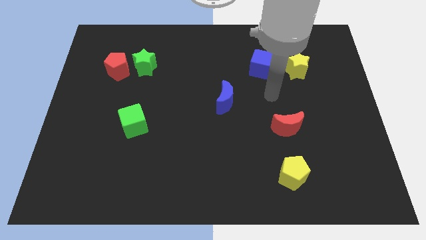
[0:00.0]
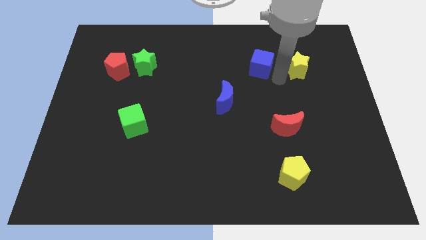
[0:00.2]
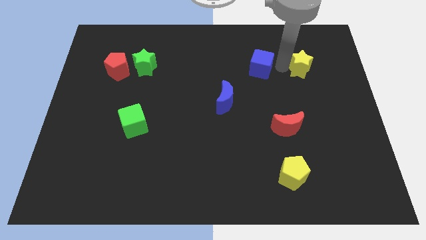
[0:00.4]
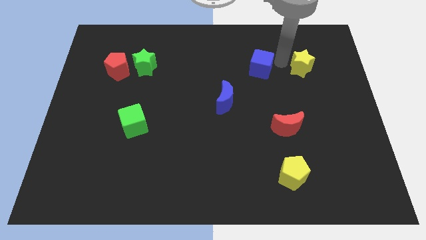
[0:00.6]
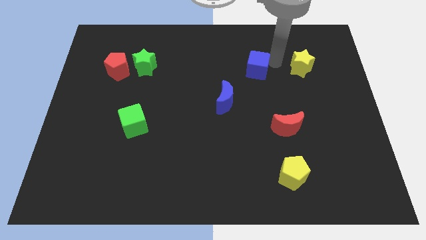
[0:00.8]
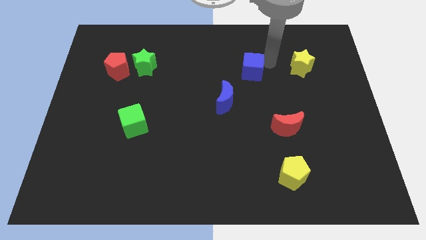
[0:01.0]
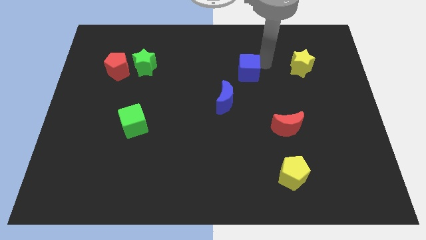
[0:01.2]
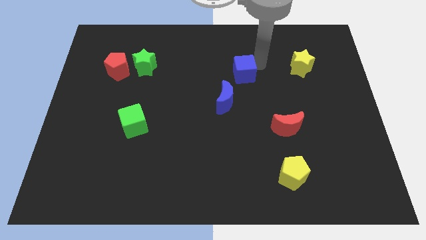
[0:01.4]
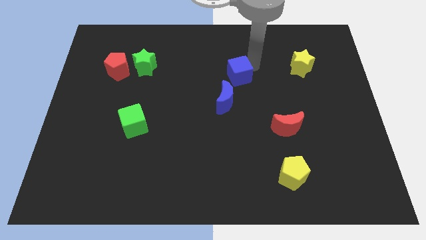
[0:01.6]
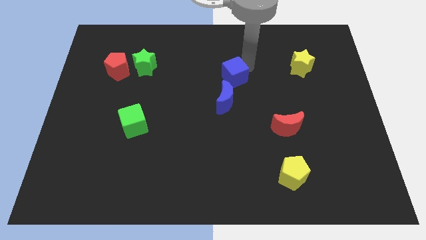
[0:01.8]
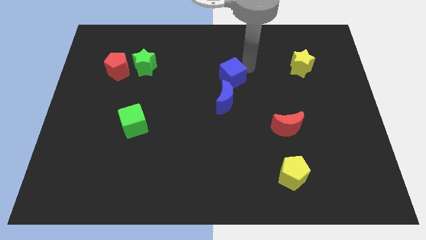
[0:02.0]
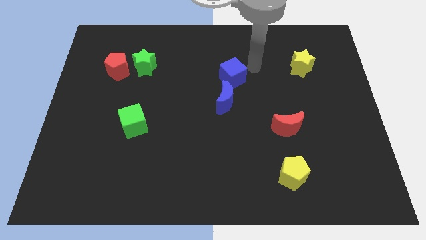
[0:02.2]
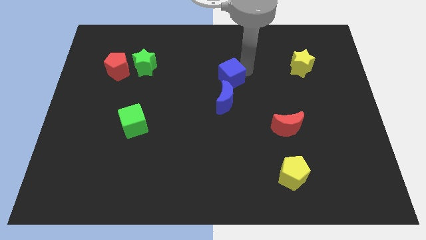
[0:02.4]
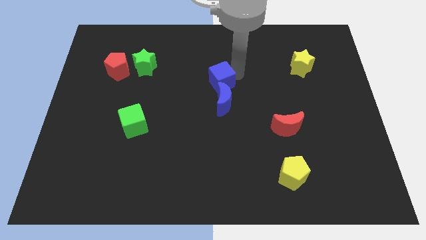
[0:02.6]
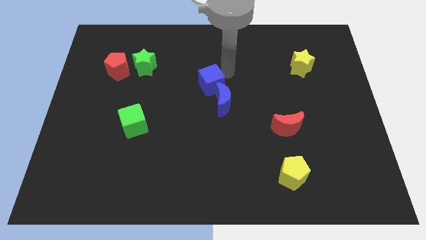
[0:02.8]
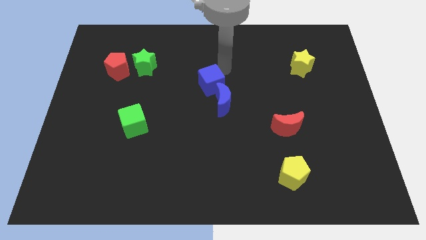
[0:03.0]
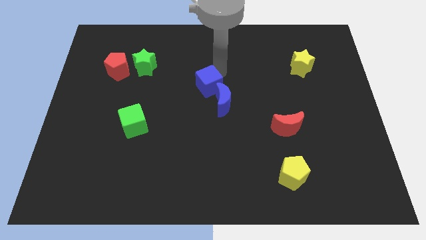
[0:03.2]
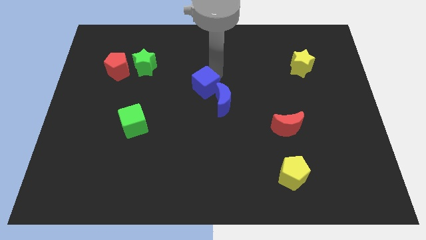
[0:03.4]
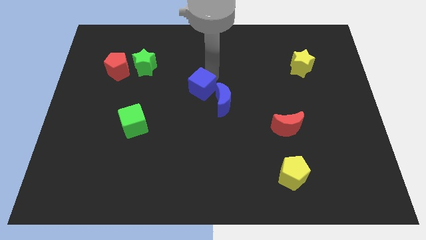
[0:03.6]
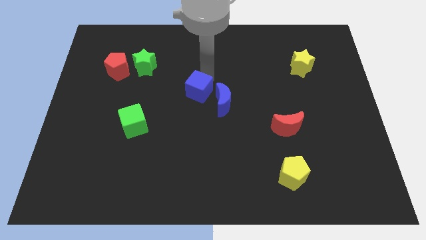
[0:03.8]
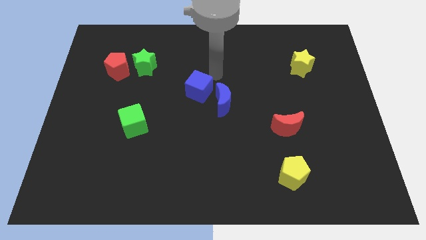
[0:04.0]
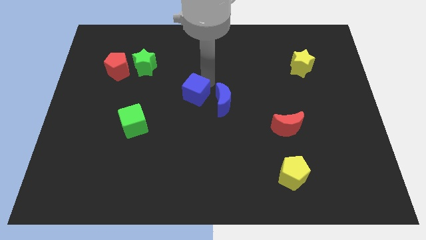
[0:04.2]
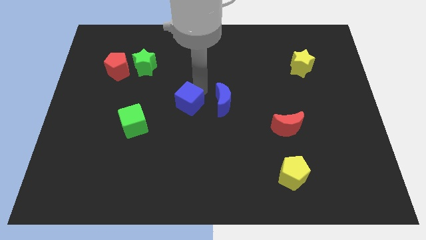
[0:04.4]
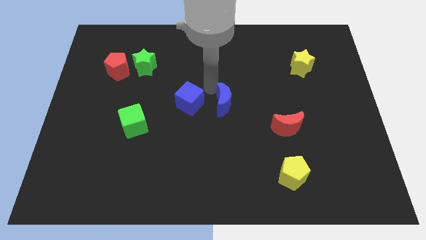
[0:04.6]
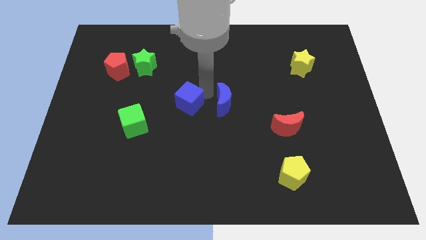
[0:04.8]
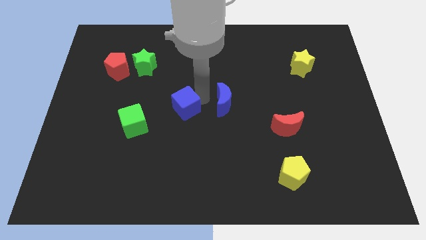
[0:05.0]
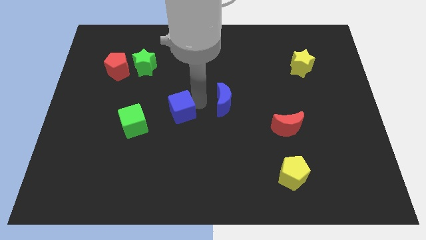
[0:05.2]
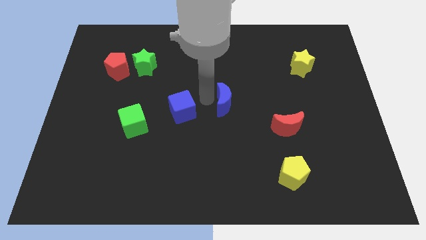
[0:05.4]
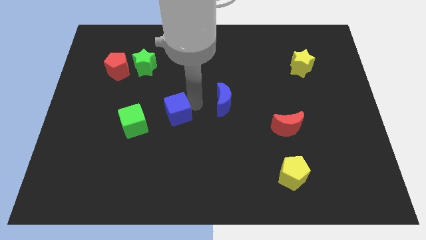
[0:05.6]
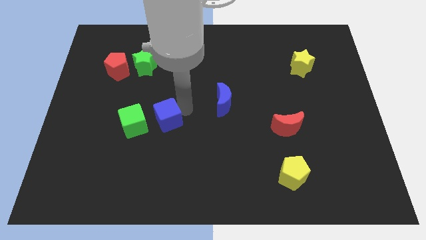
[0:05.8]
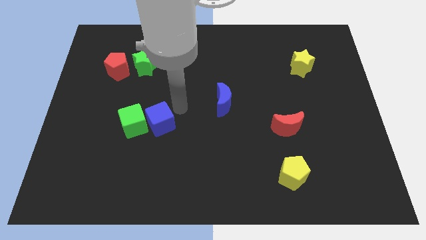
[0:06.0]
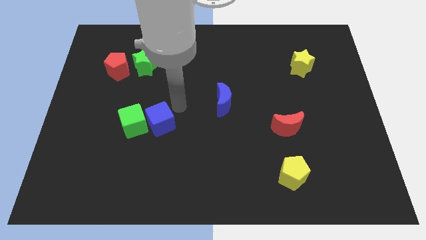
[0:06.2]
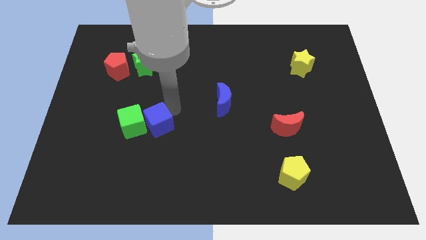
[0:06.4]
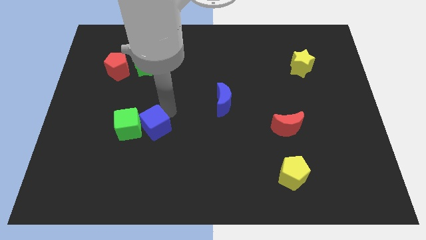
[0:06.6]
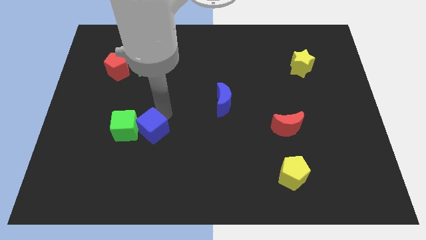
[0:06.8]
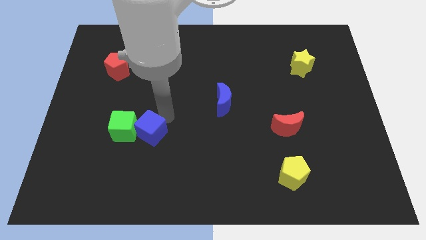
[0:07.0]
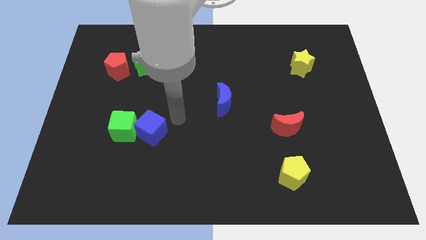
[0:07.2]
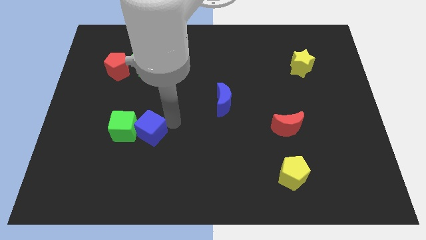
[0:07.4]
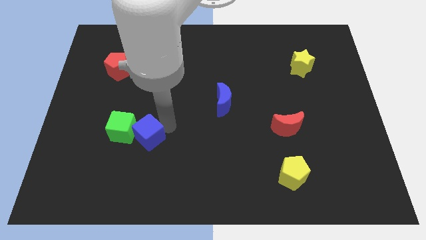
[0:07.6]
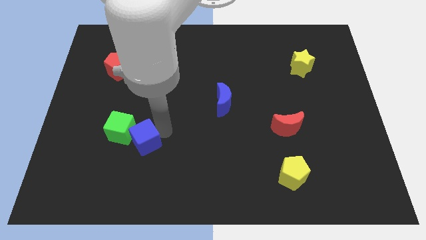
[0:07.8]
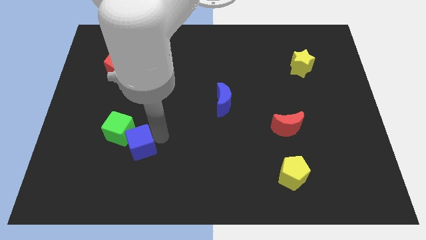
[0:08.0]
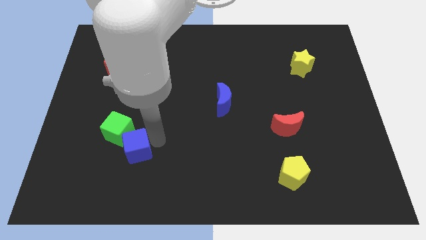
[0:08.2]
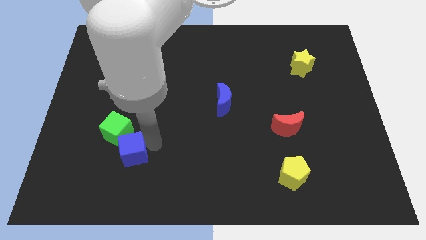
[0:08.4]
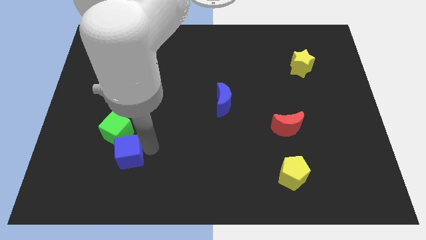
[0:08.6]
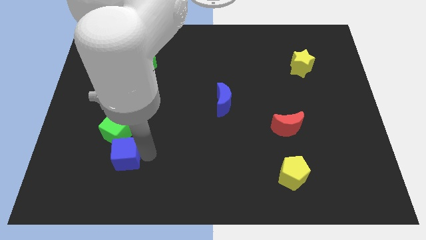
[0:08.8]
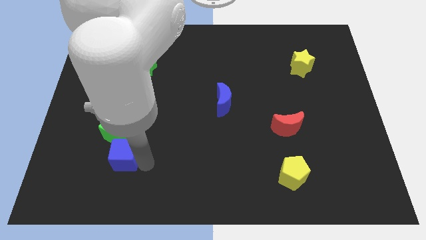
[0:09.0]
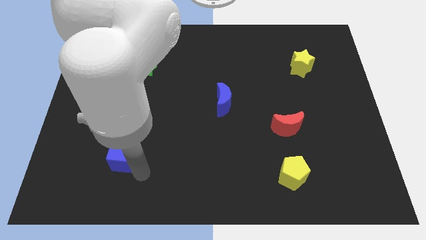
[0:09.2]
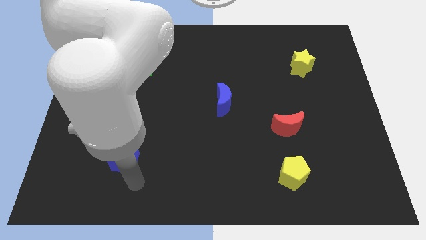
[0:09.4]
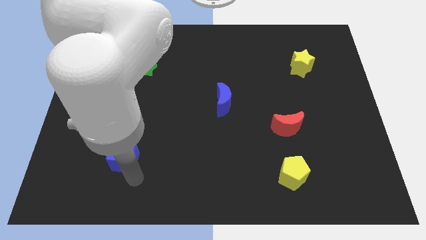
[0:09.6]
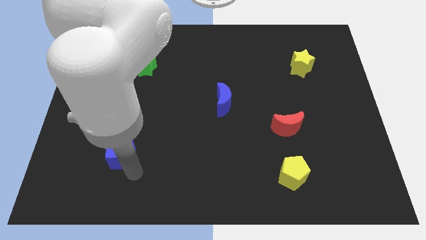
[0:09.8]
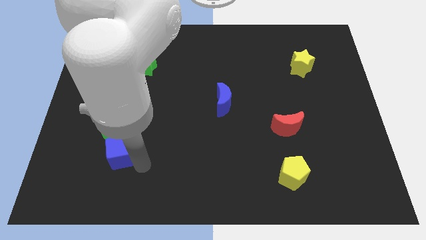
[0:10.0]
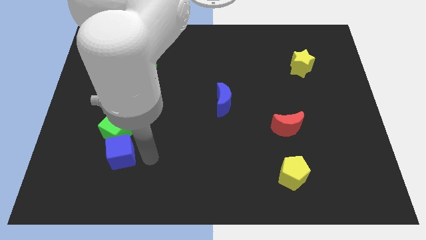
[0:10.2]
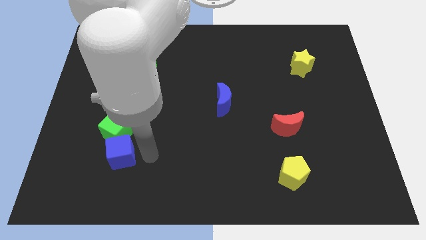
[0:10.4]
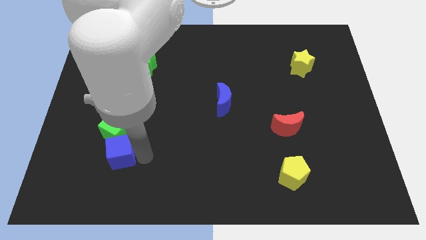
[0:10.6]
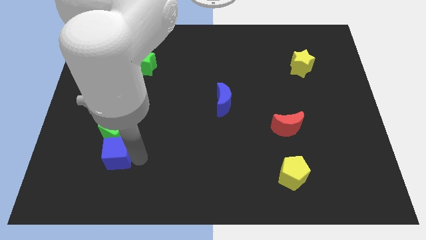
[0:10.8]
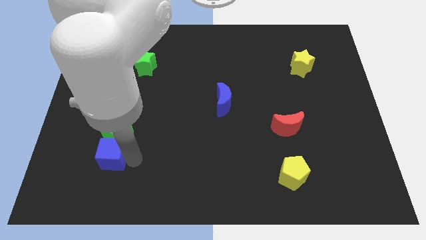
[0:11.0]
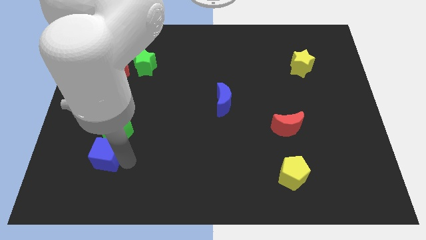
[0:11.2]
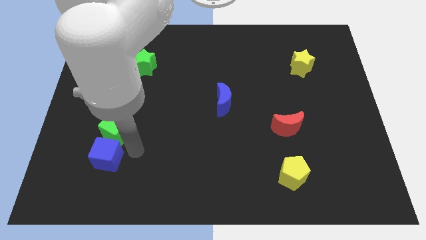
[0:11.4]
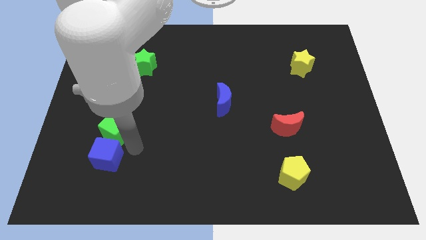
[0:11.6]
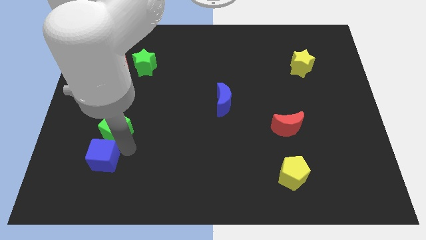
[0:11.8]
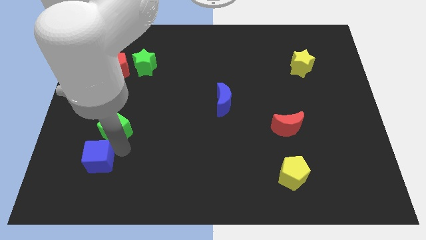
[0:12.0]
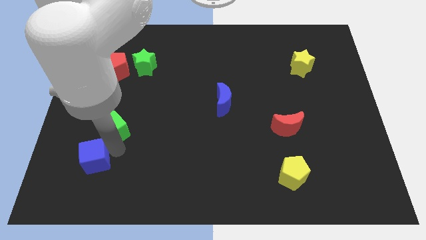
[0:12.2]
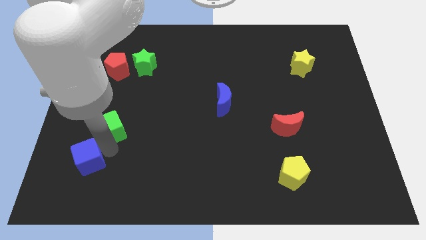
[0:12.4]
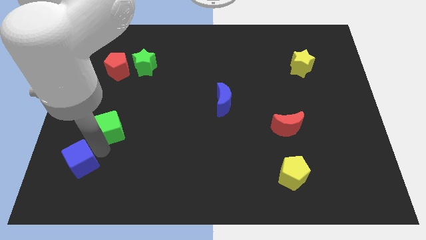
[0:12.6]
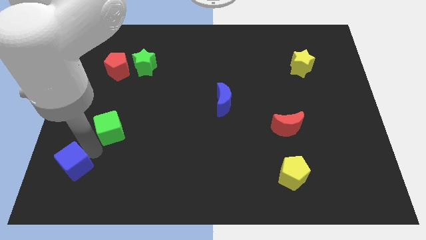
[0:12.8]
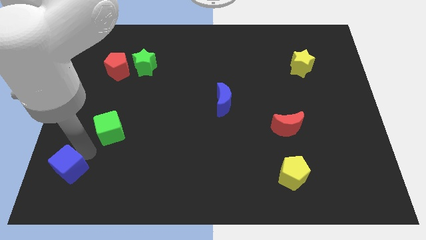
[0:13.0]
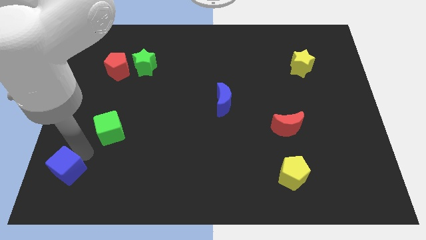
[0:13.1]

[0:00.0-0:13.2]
put the blue cube to the bottom left corner
